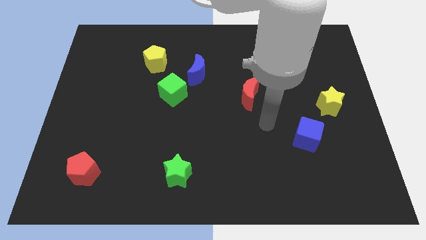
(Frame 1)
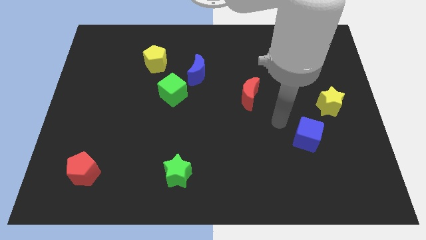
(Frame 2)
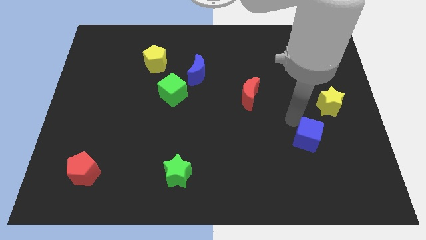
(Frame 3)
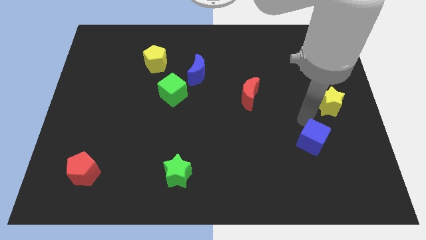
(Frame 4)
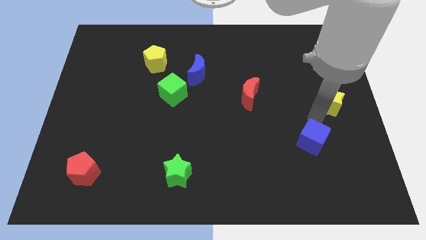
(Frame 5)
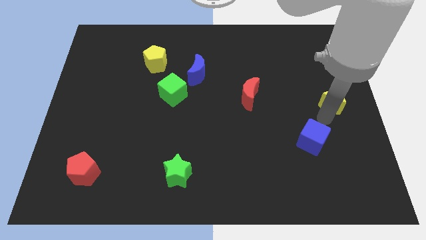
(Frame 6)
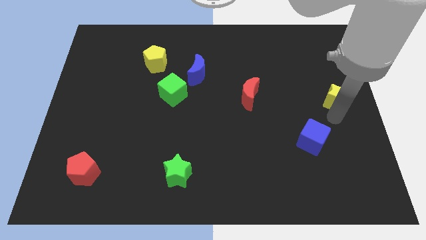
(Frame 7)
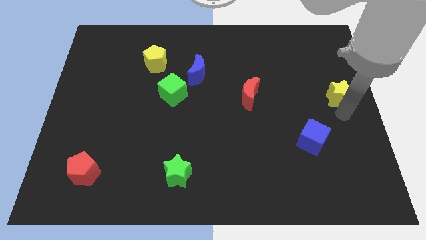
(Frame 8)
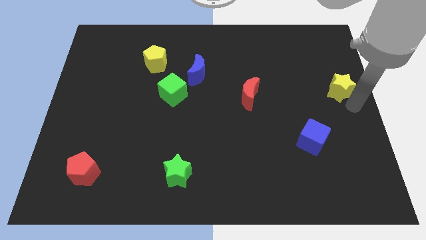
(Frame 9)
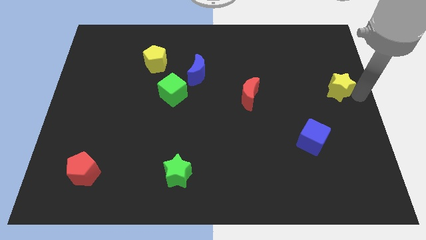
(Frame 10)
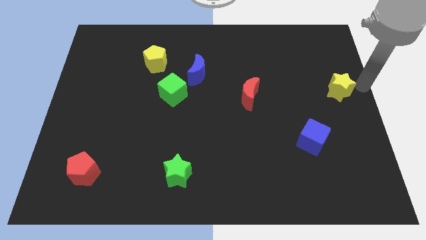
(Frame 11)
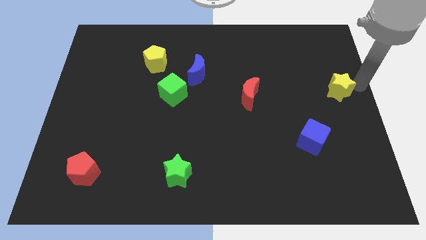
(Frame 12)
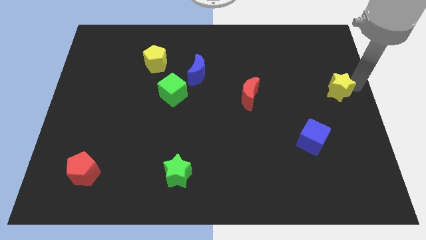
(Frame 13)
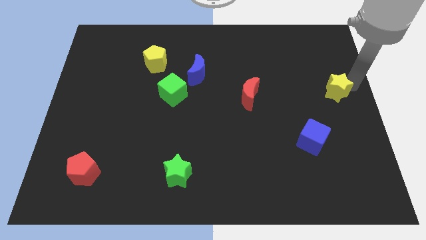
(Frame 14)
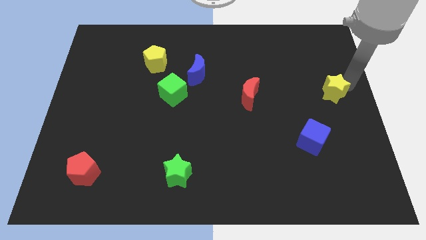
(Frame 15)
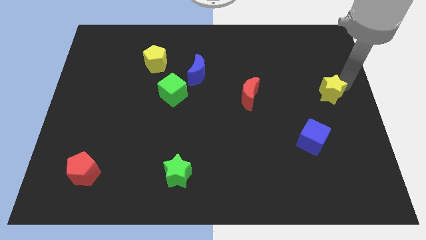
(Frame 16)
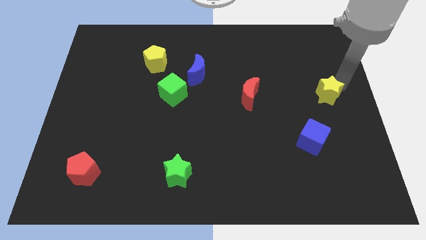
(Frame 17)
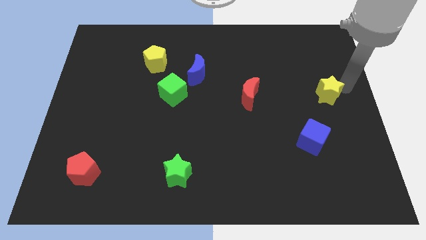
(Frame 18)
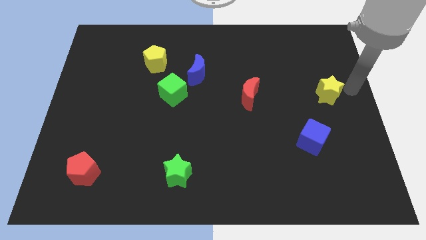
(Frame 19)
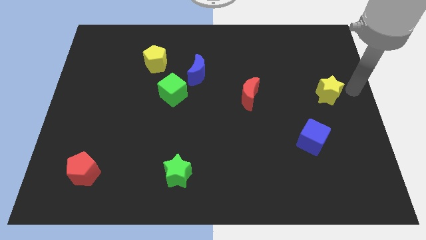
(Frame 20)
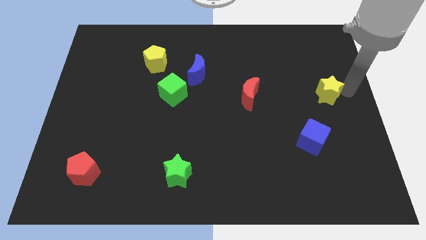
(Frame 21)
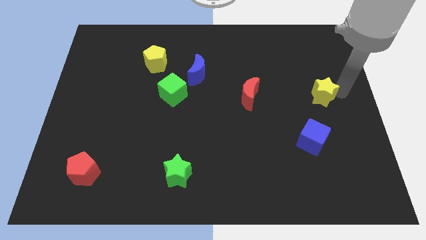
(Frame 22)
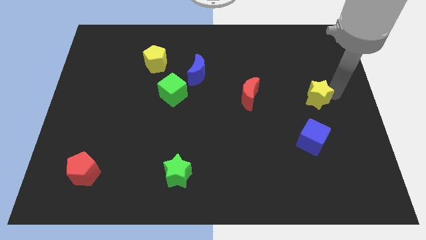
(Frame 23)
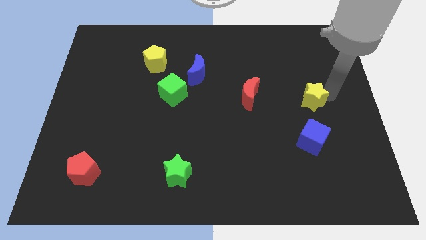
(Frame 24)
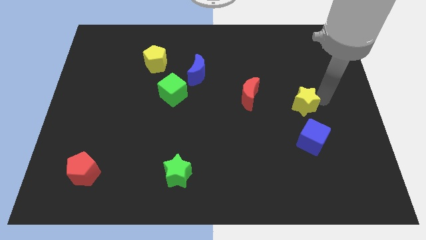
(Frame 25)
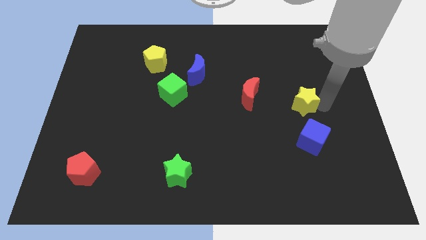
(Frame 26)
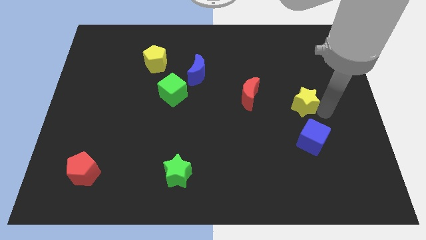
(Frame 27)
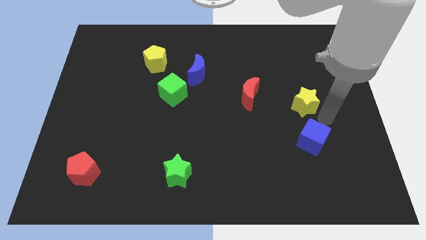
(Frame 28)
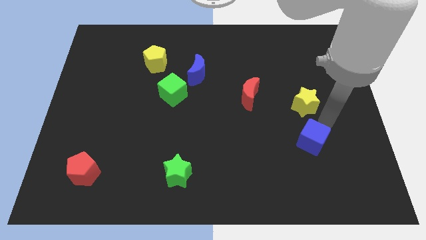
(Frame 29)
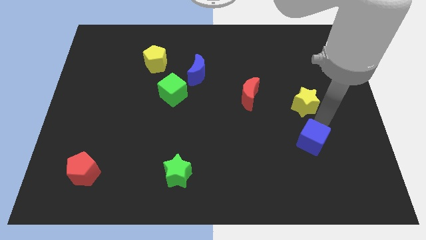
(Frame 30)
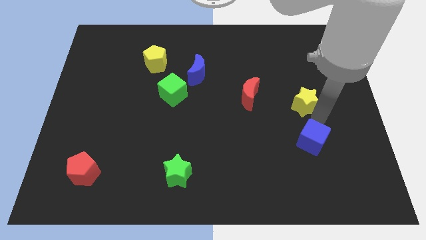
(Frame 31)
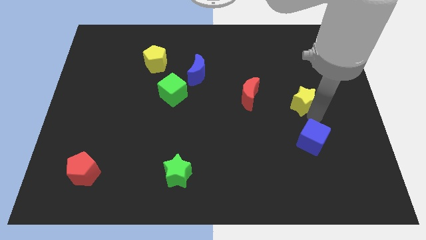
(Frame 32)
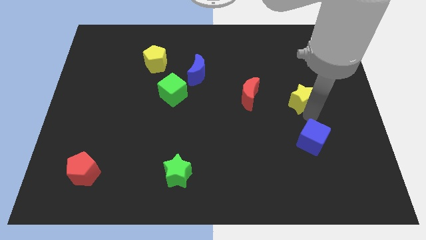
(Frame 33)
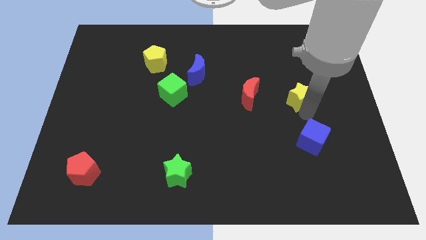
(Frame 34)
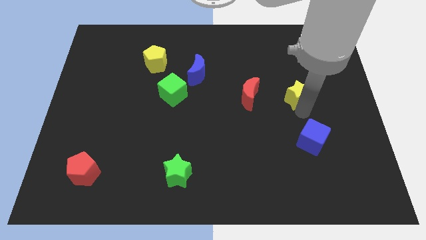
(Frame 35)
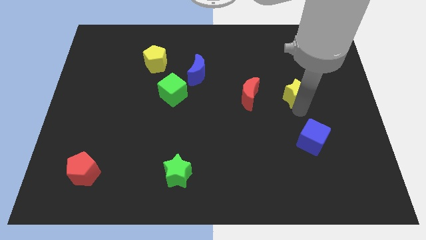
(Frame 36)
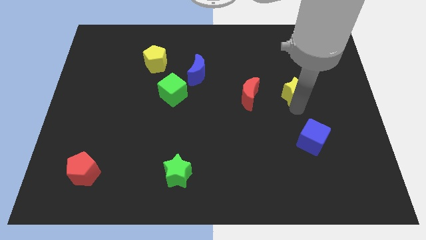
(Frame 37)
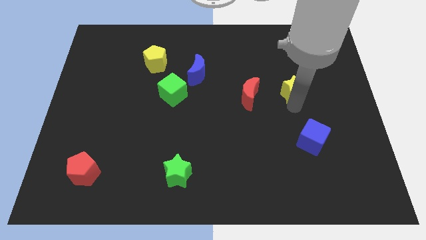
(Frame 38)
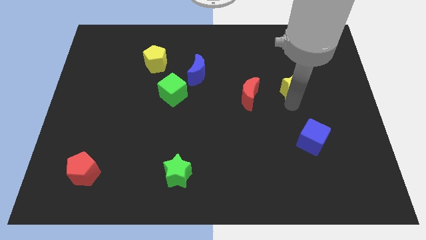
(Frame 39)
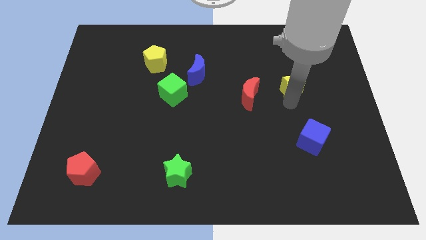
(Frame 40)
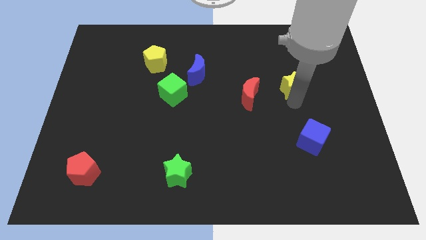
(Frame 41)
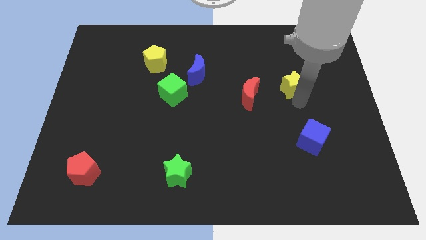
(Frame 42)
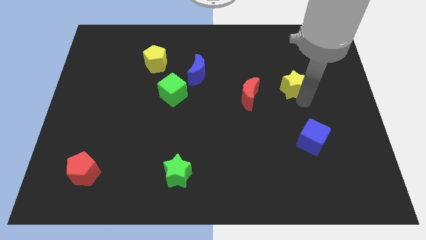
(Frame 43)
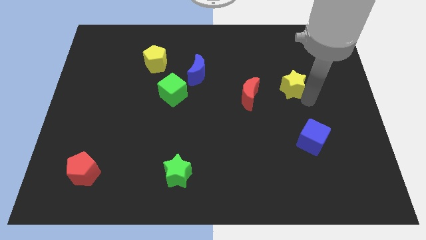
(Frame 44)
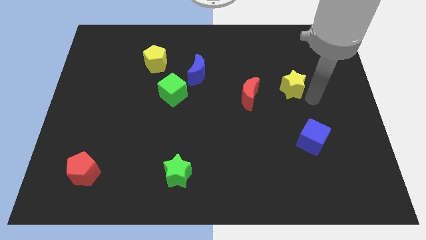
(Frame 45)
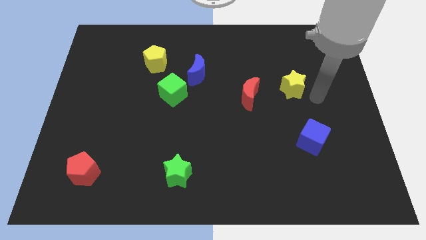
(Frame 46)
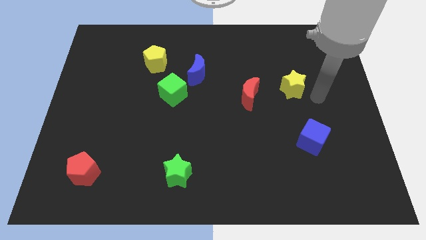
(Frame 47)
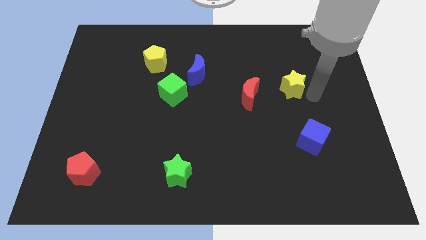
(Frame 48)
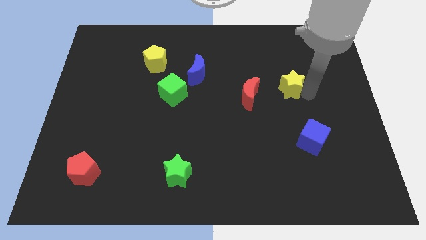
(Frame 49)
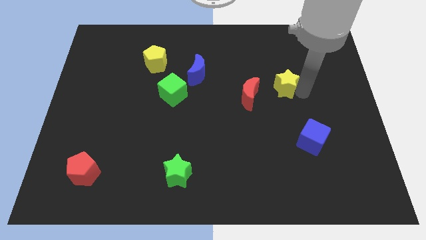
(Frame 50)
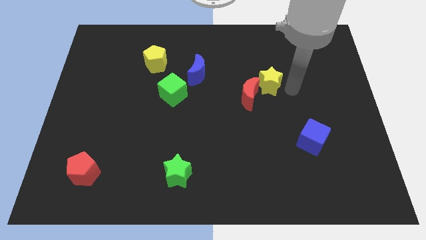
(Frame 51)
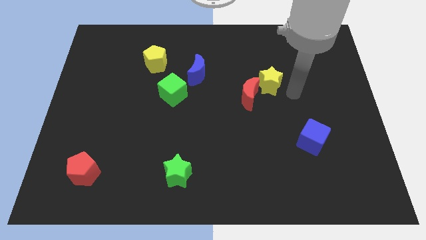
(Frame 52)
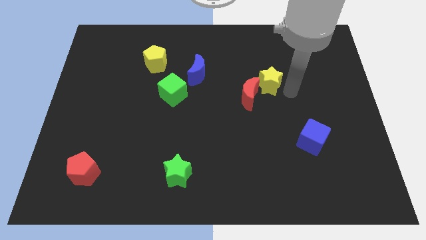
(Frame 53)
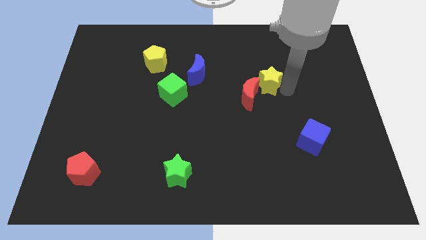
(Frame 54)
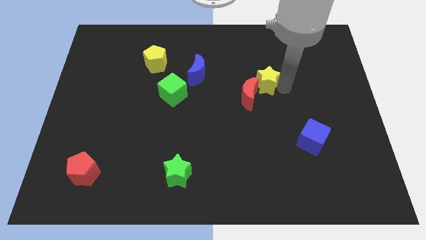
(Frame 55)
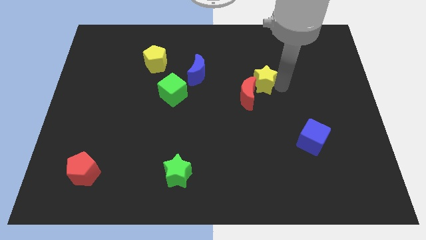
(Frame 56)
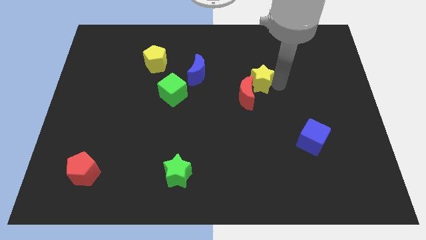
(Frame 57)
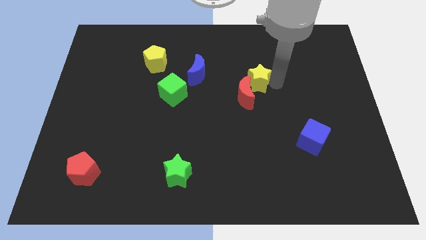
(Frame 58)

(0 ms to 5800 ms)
move the yellow star just right of the blue moon

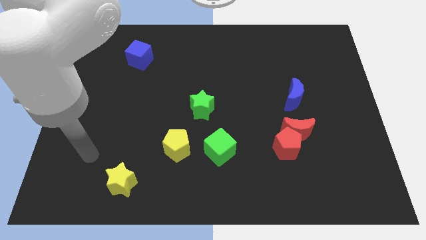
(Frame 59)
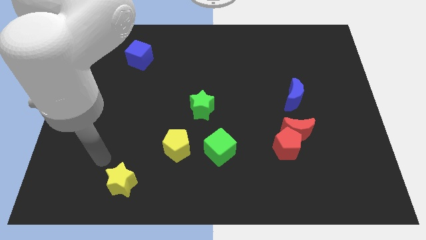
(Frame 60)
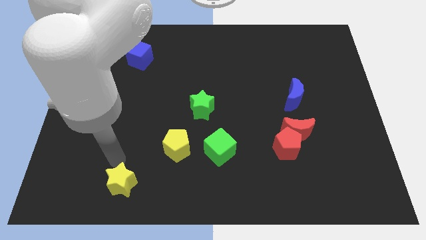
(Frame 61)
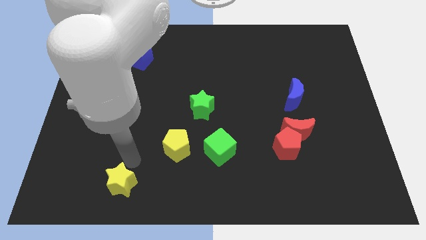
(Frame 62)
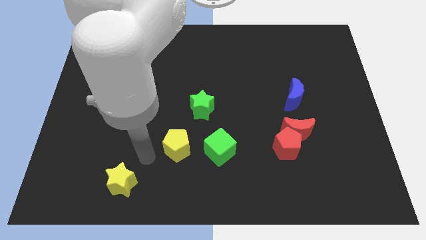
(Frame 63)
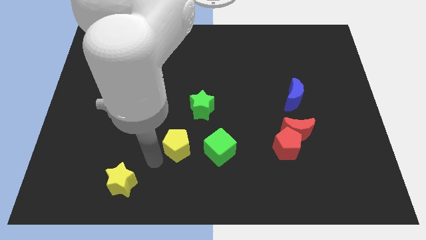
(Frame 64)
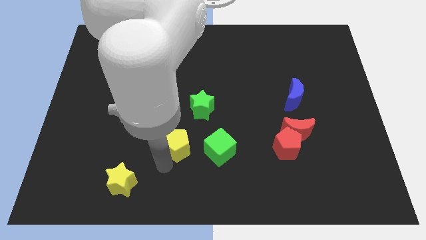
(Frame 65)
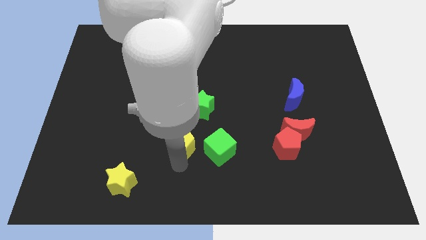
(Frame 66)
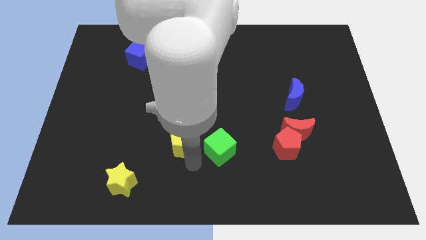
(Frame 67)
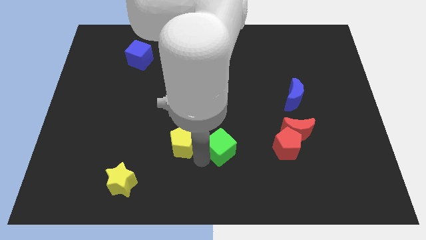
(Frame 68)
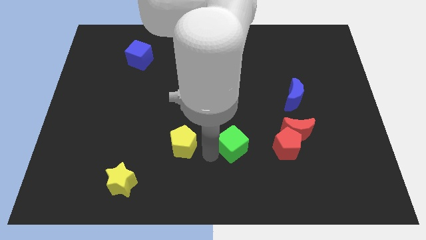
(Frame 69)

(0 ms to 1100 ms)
slide the green cube just left of the red moon

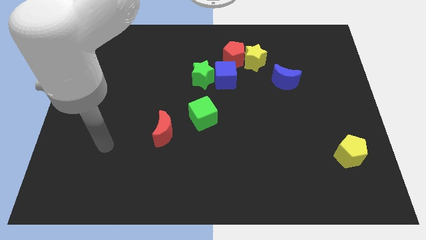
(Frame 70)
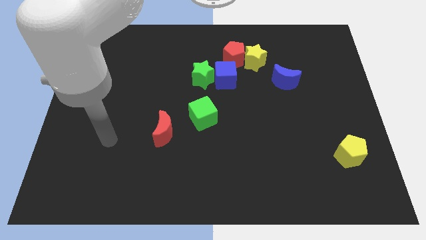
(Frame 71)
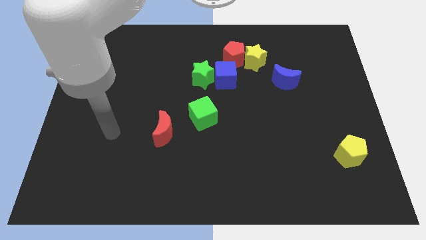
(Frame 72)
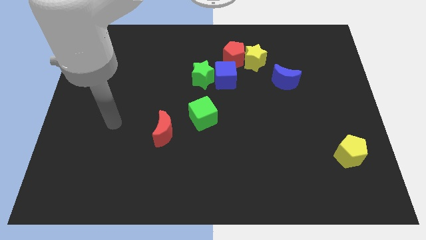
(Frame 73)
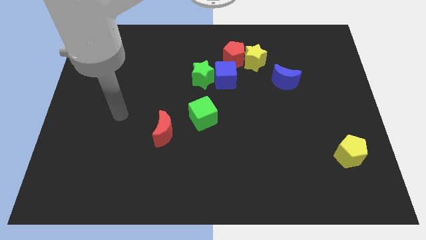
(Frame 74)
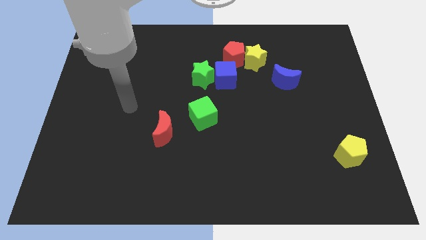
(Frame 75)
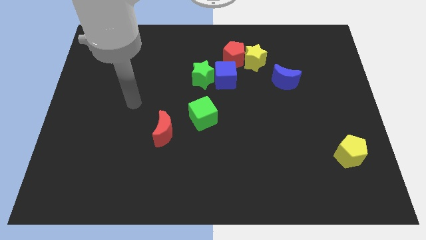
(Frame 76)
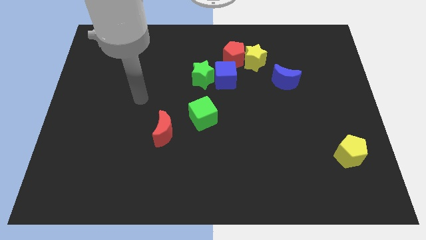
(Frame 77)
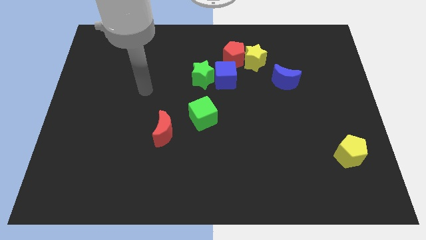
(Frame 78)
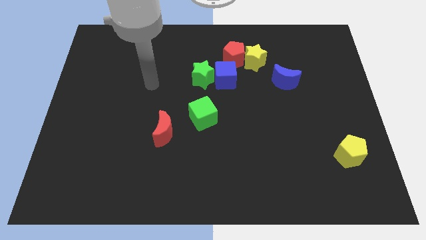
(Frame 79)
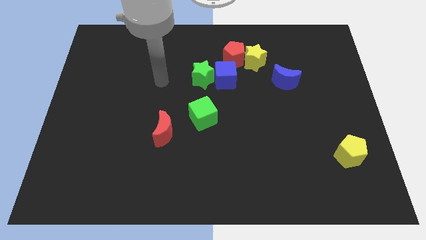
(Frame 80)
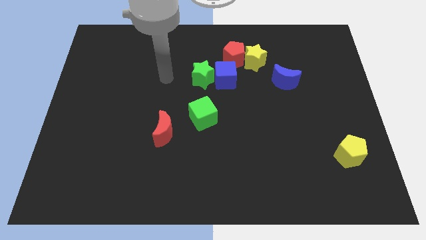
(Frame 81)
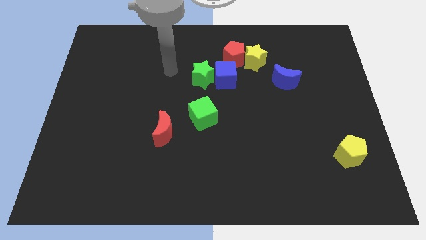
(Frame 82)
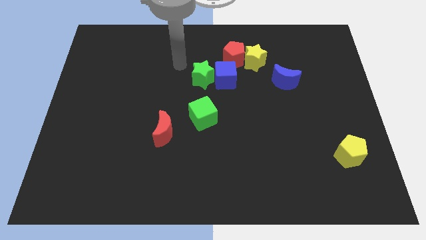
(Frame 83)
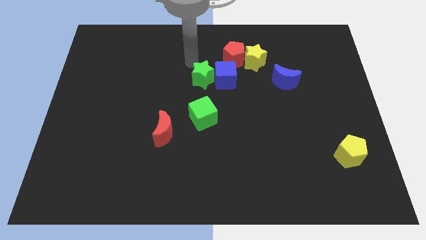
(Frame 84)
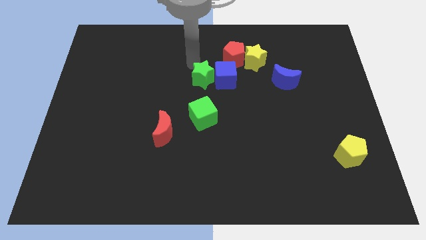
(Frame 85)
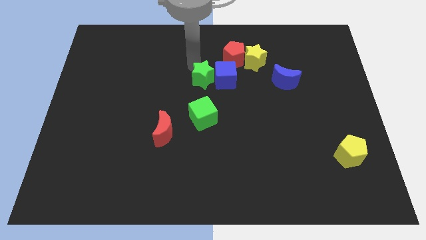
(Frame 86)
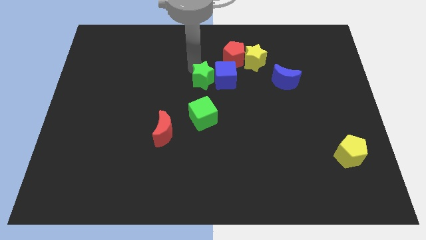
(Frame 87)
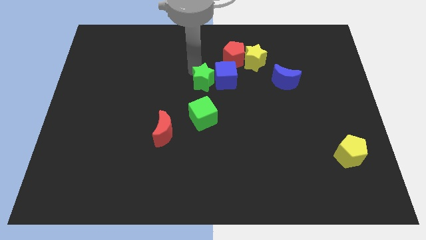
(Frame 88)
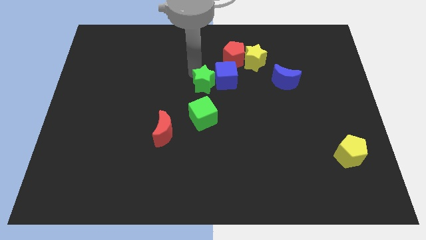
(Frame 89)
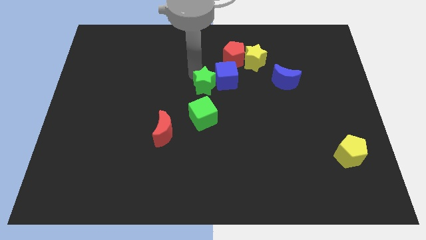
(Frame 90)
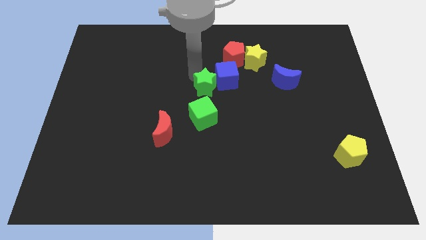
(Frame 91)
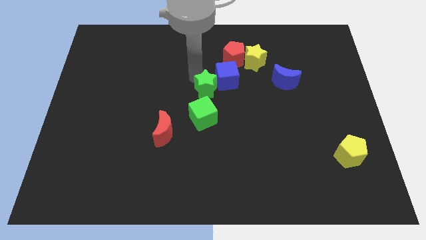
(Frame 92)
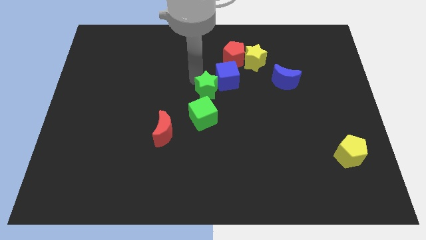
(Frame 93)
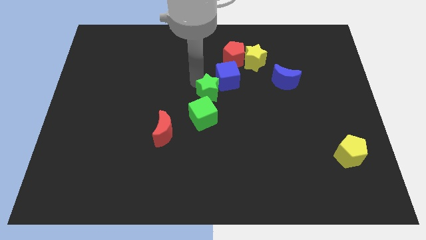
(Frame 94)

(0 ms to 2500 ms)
slide the green star below the blue cube
